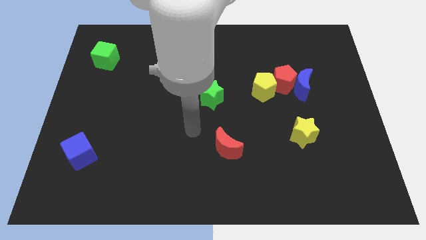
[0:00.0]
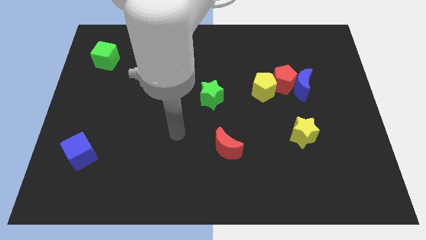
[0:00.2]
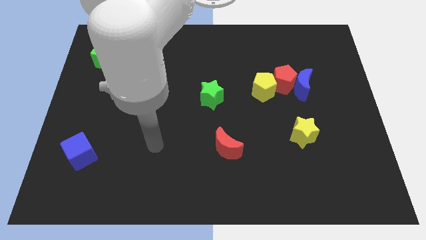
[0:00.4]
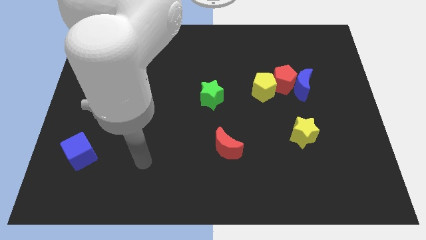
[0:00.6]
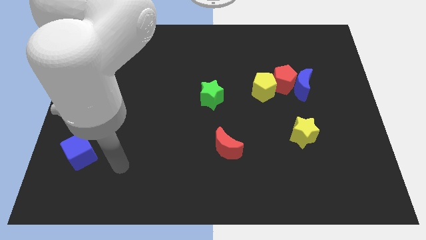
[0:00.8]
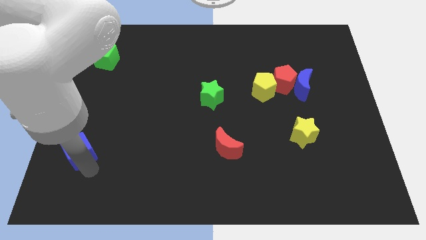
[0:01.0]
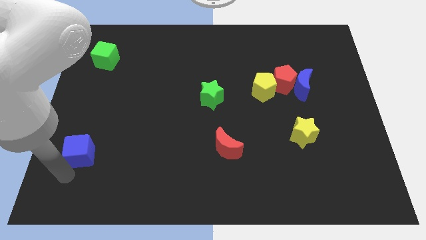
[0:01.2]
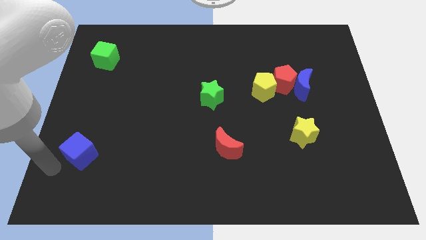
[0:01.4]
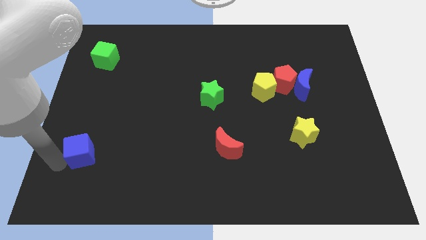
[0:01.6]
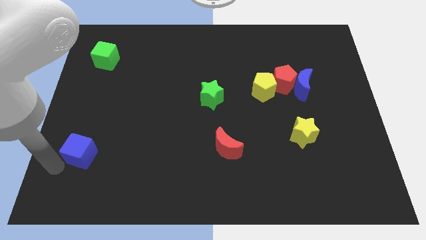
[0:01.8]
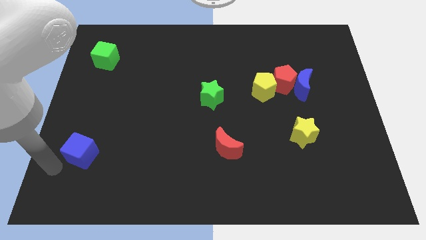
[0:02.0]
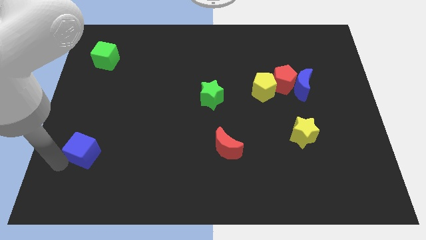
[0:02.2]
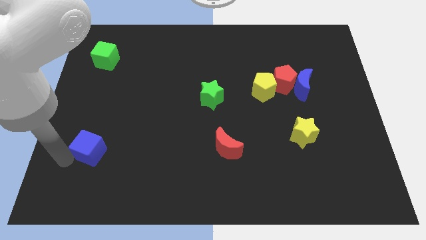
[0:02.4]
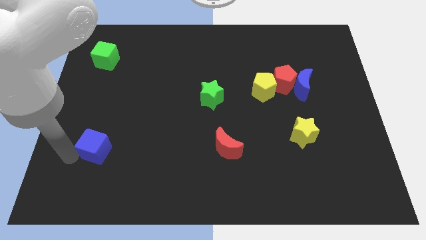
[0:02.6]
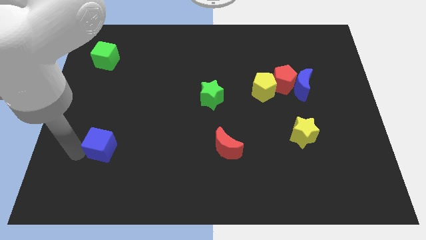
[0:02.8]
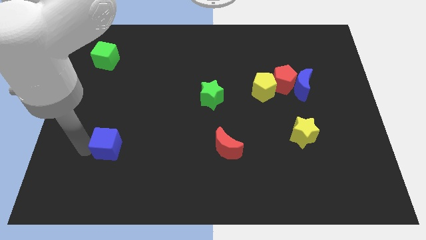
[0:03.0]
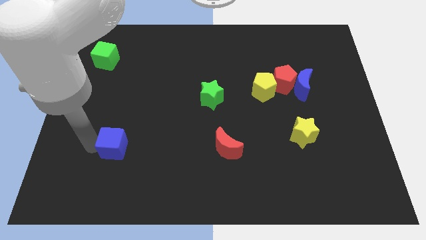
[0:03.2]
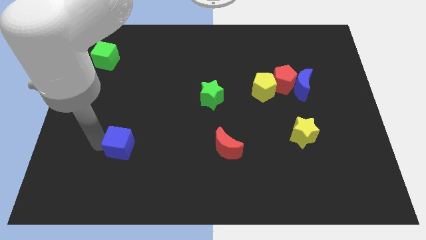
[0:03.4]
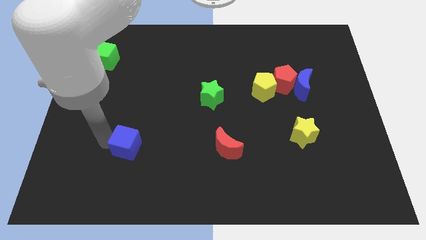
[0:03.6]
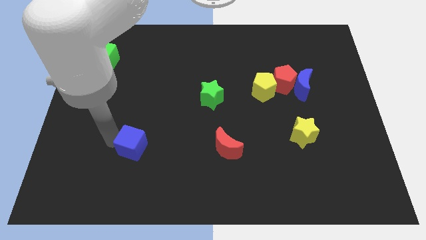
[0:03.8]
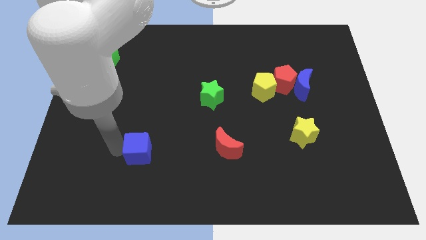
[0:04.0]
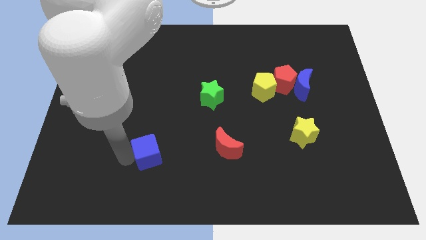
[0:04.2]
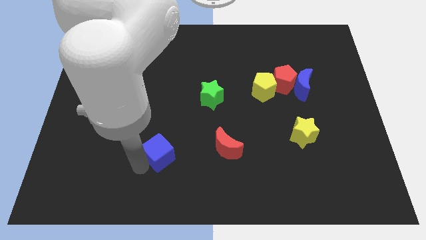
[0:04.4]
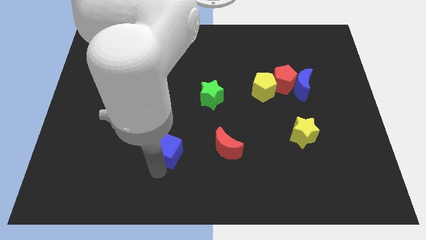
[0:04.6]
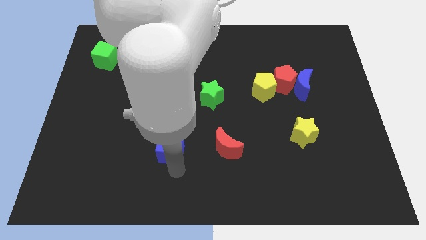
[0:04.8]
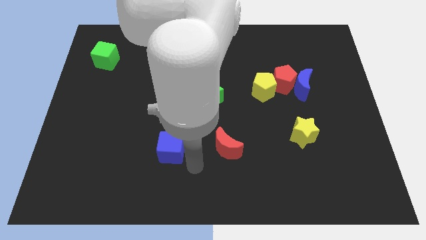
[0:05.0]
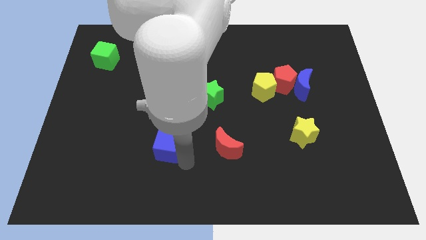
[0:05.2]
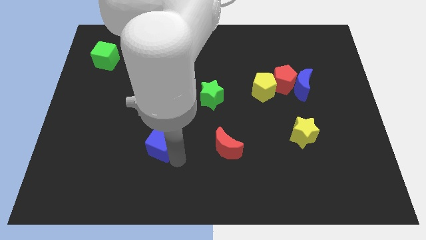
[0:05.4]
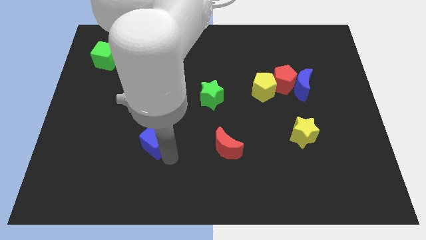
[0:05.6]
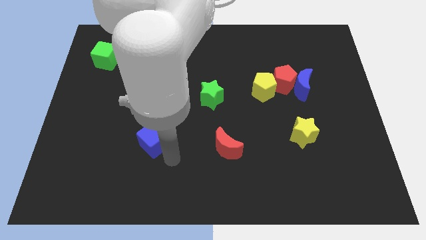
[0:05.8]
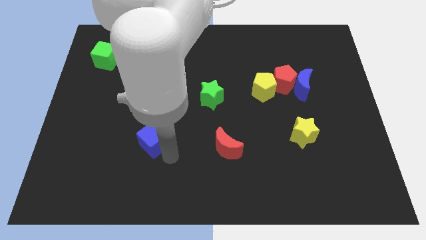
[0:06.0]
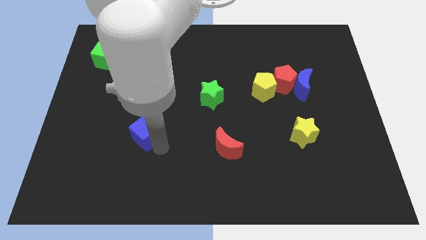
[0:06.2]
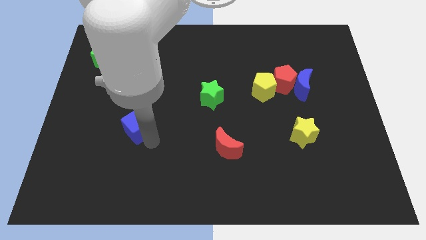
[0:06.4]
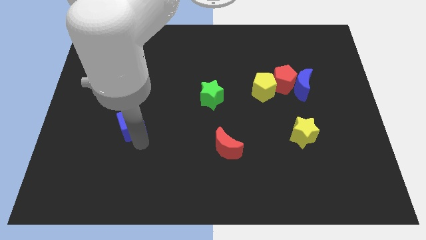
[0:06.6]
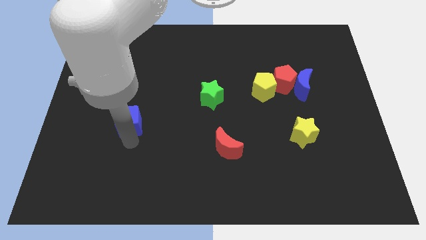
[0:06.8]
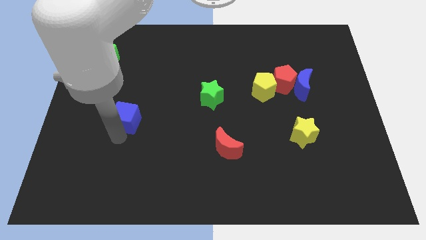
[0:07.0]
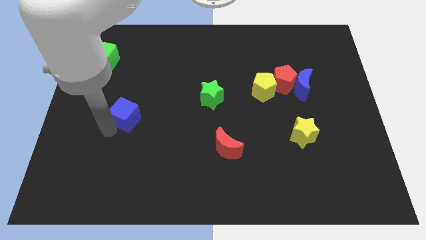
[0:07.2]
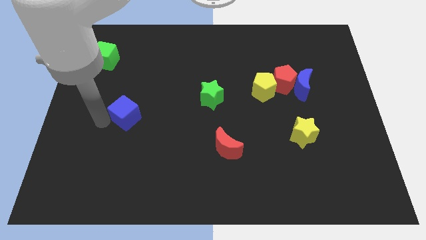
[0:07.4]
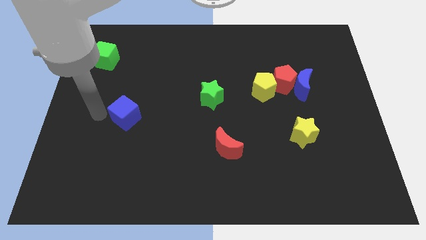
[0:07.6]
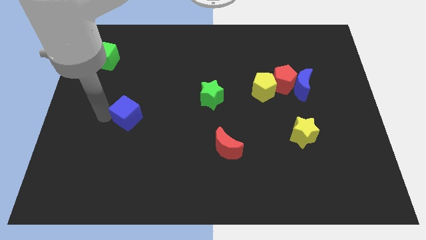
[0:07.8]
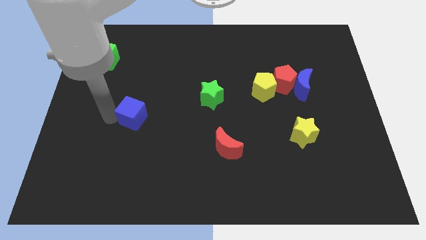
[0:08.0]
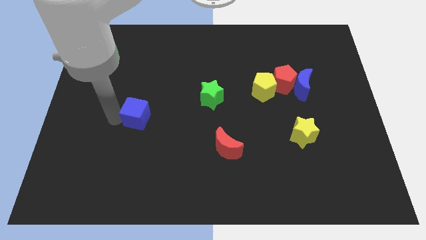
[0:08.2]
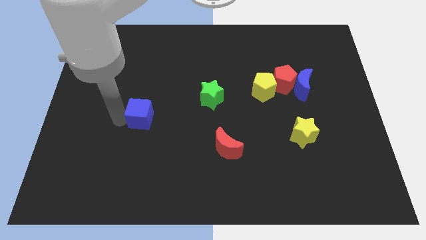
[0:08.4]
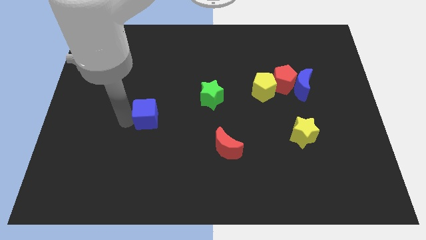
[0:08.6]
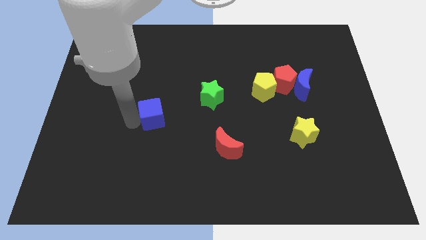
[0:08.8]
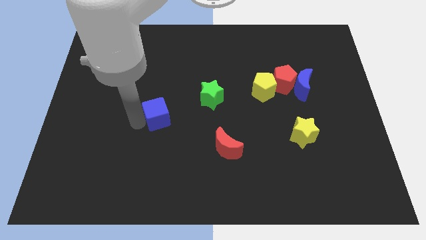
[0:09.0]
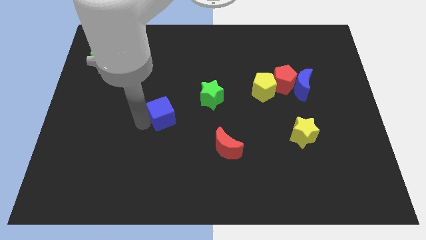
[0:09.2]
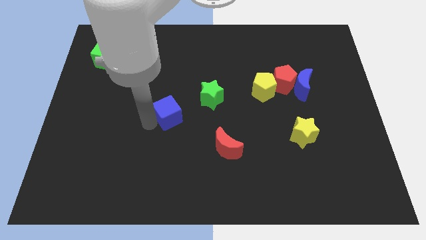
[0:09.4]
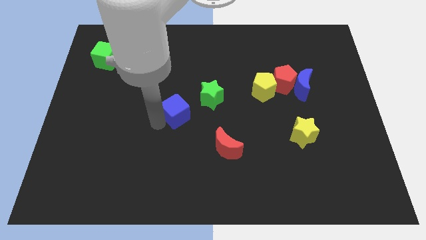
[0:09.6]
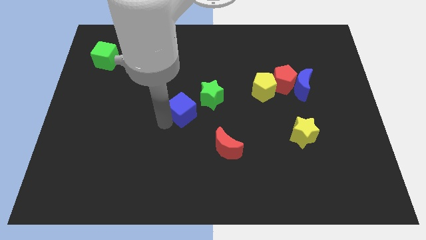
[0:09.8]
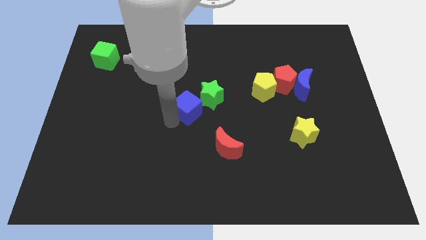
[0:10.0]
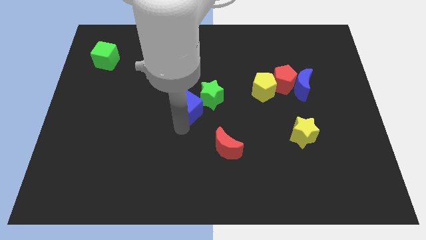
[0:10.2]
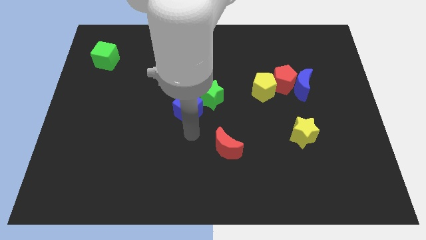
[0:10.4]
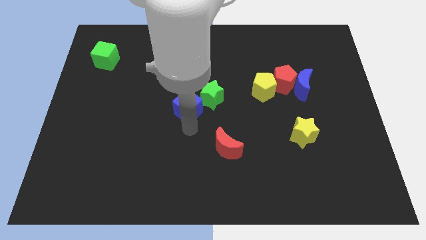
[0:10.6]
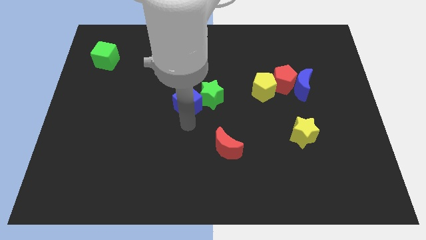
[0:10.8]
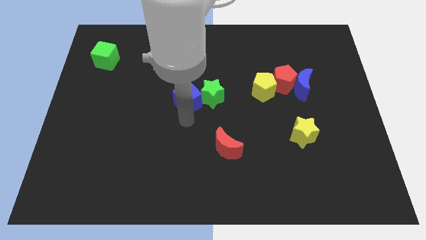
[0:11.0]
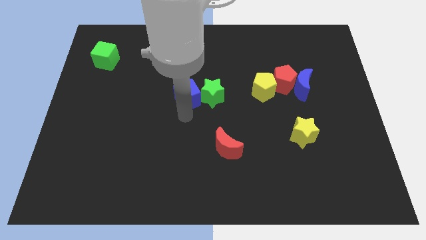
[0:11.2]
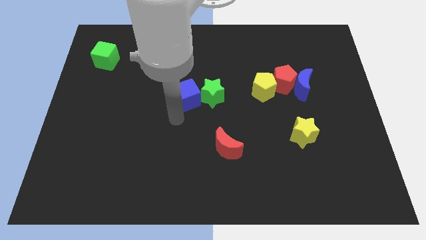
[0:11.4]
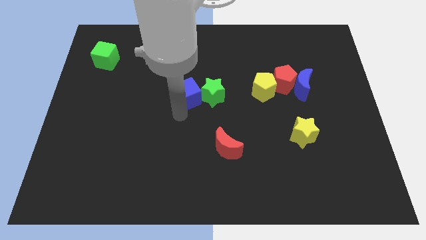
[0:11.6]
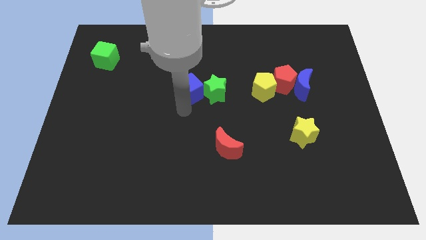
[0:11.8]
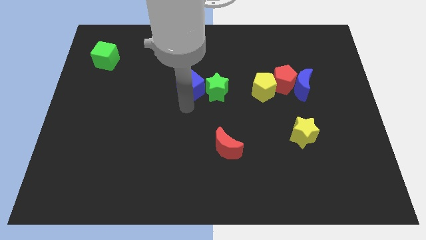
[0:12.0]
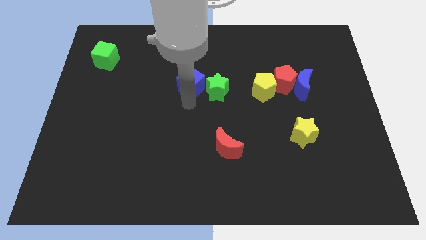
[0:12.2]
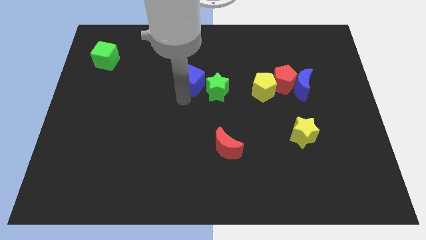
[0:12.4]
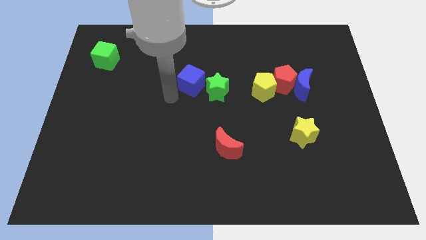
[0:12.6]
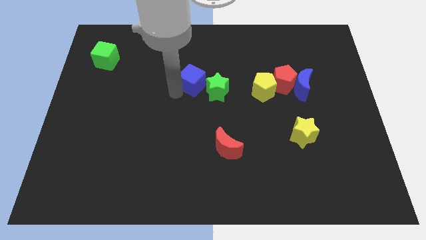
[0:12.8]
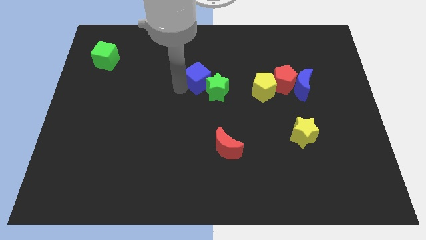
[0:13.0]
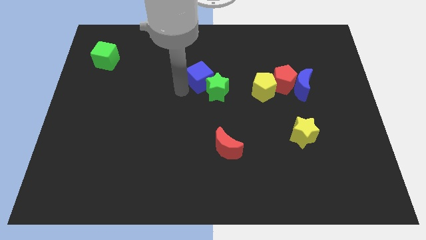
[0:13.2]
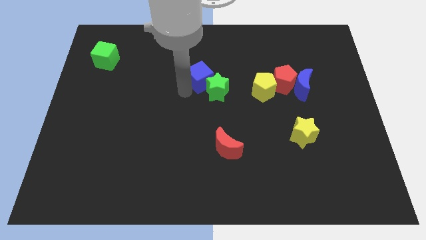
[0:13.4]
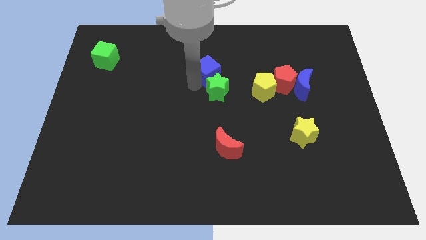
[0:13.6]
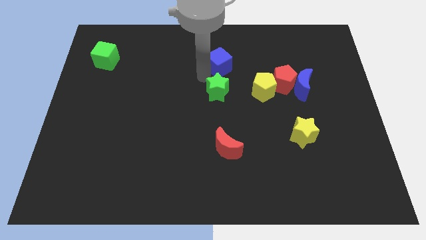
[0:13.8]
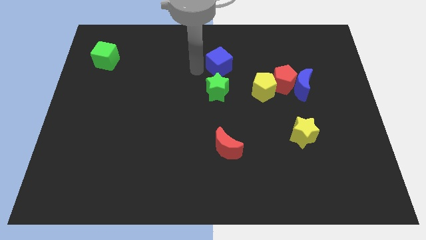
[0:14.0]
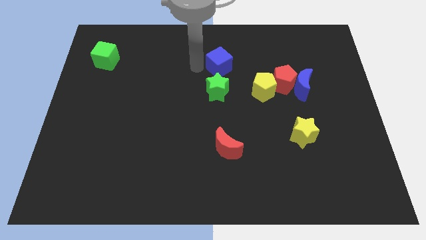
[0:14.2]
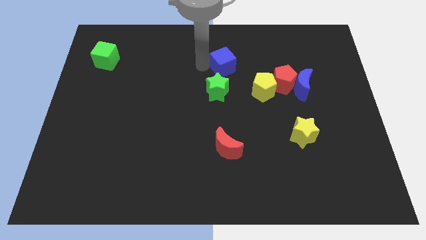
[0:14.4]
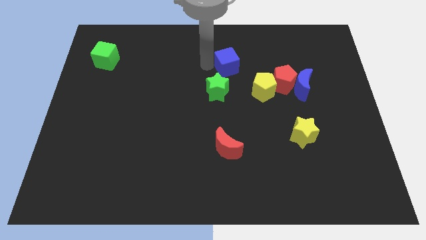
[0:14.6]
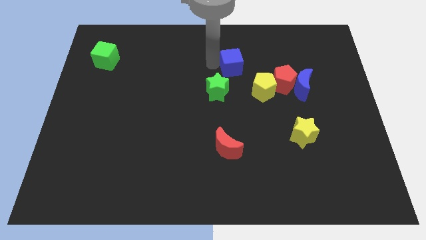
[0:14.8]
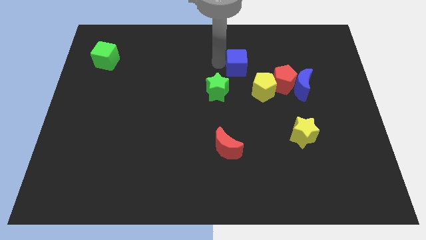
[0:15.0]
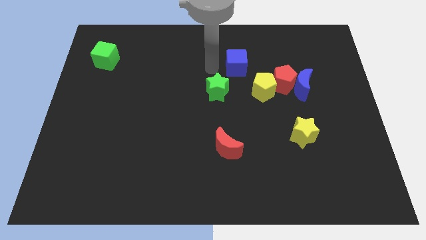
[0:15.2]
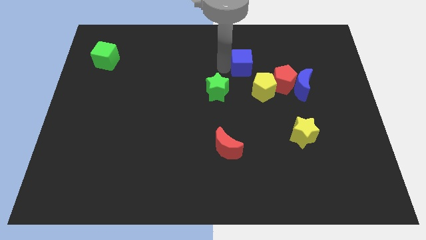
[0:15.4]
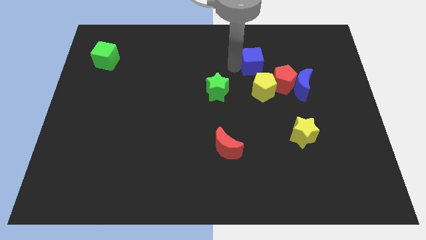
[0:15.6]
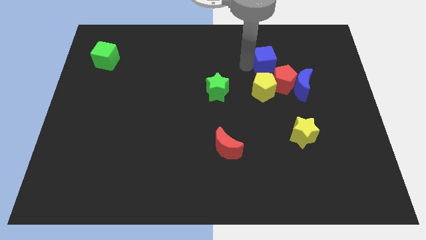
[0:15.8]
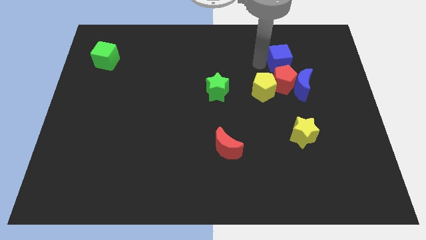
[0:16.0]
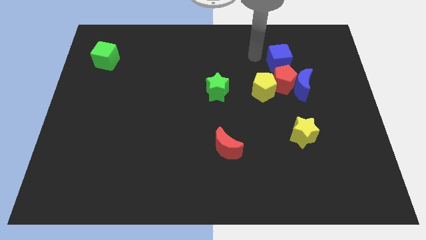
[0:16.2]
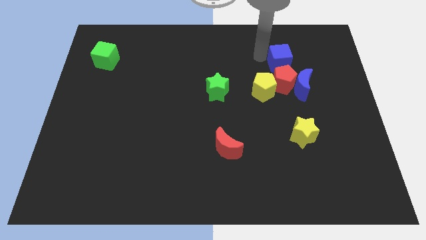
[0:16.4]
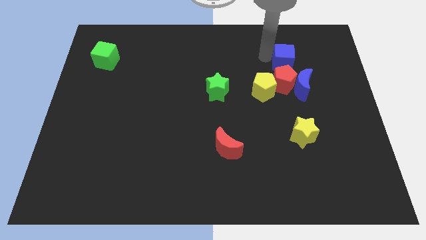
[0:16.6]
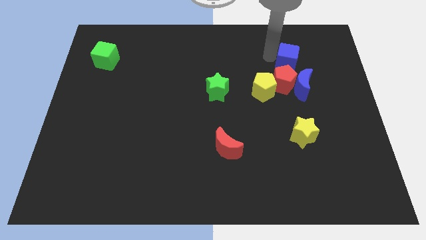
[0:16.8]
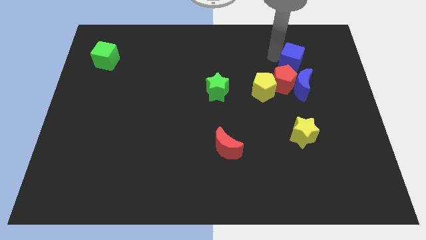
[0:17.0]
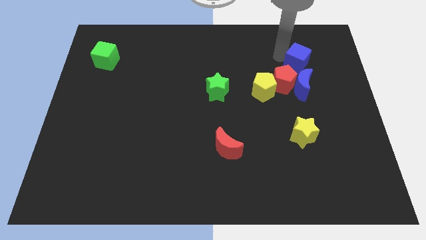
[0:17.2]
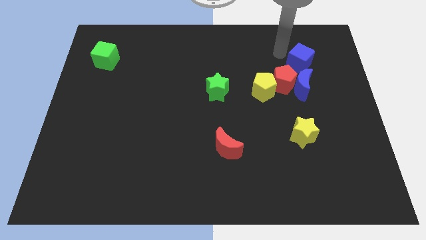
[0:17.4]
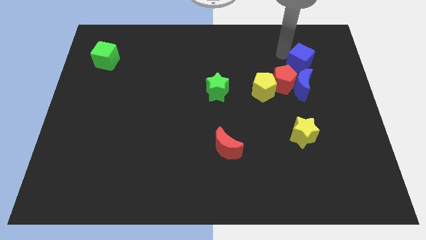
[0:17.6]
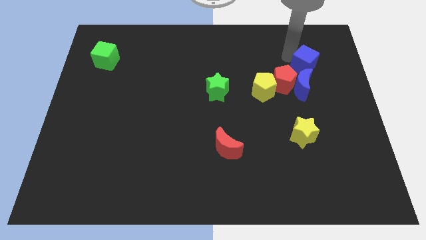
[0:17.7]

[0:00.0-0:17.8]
move the blue cube to the top right of the blue moon
